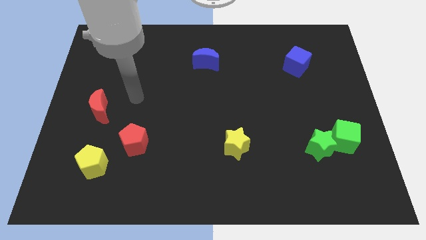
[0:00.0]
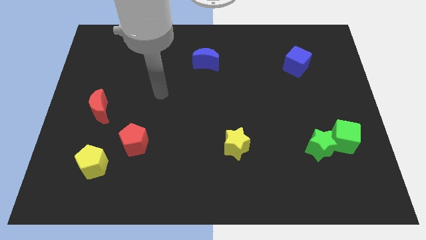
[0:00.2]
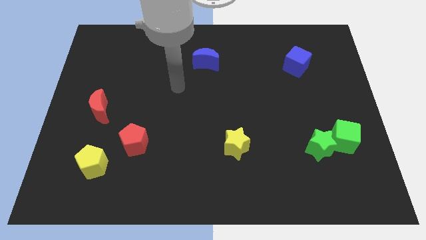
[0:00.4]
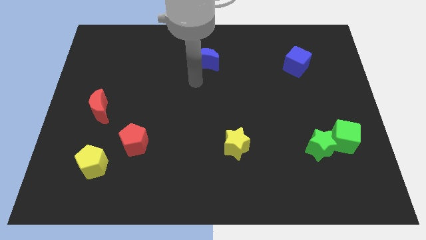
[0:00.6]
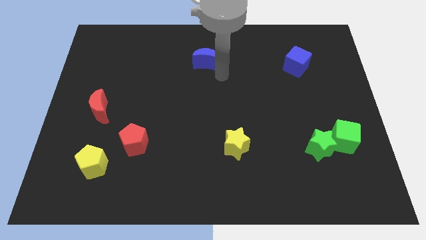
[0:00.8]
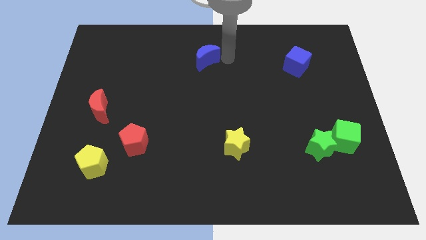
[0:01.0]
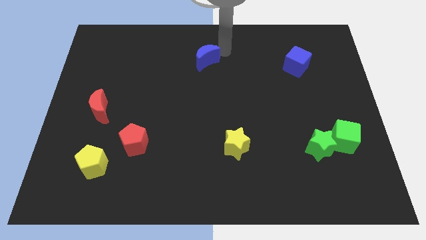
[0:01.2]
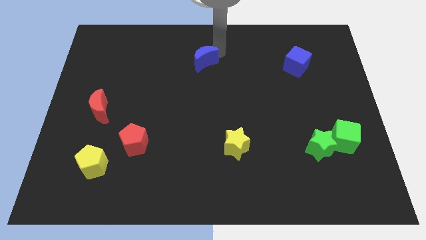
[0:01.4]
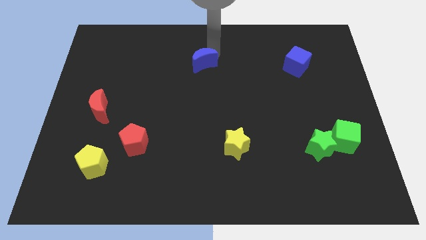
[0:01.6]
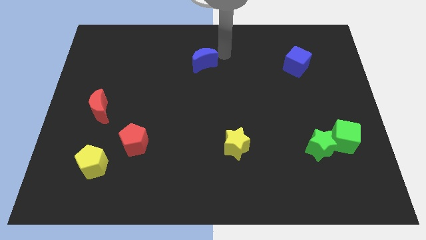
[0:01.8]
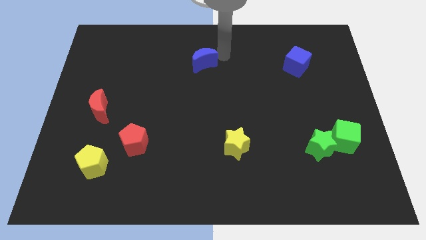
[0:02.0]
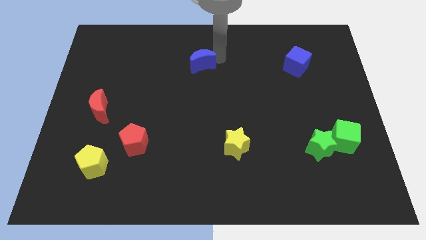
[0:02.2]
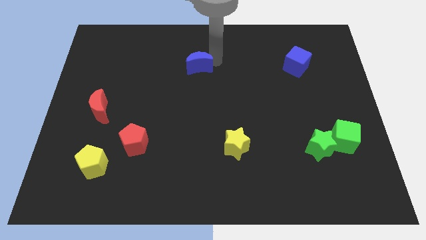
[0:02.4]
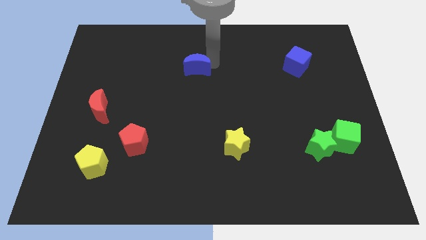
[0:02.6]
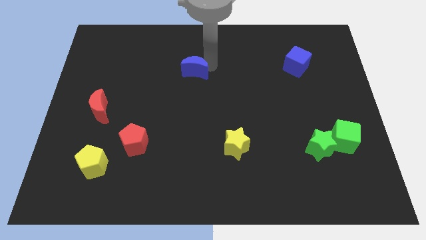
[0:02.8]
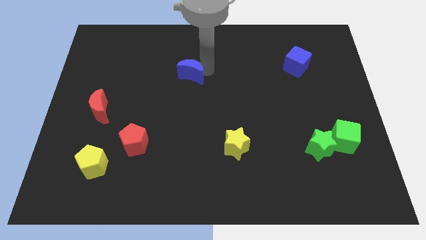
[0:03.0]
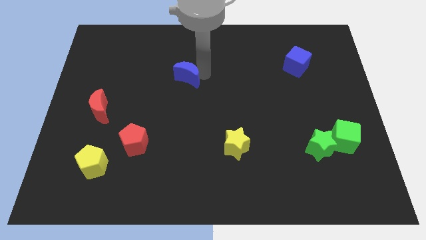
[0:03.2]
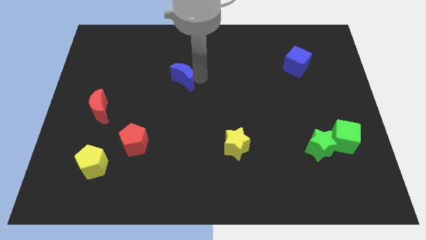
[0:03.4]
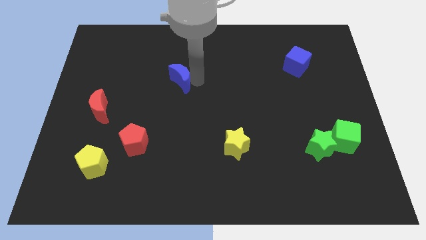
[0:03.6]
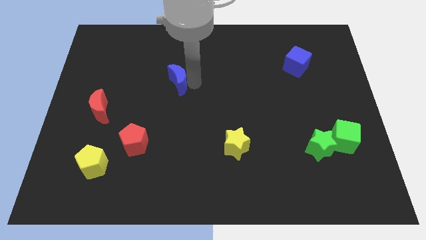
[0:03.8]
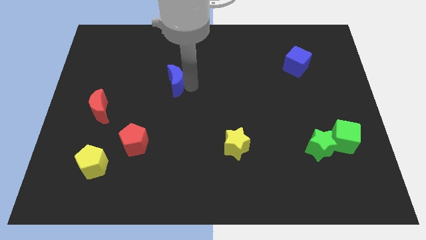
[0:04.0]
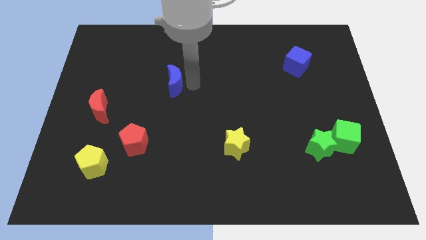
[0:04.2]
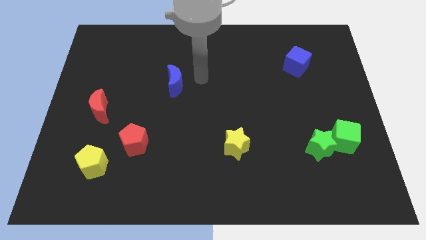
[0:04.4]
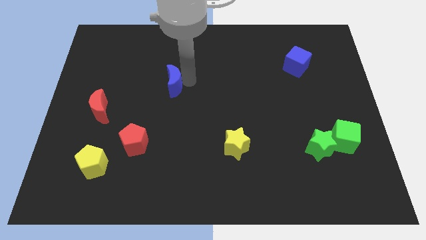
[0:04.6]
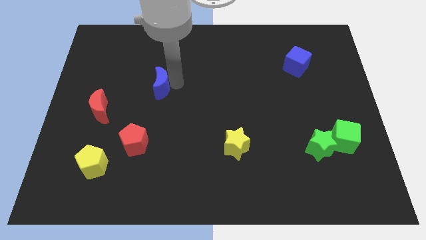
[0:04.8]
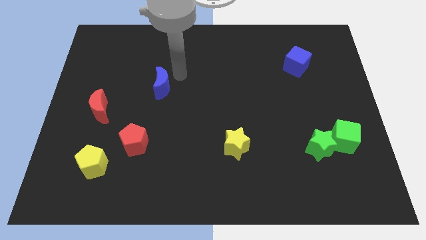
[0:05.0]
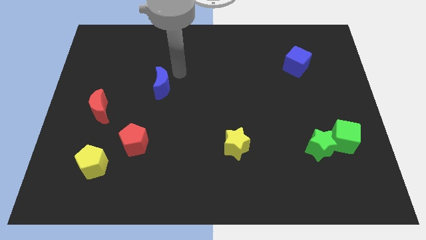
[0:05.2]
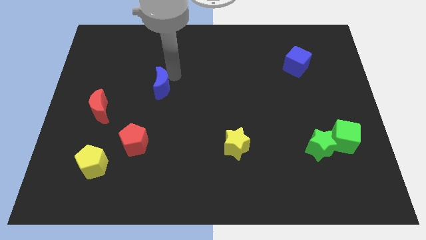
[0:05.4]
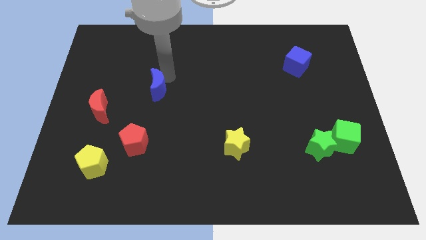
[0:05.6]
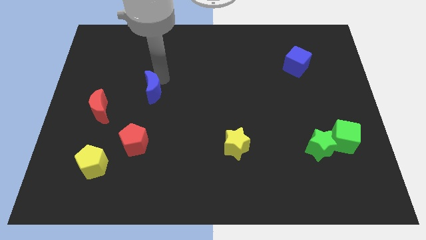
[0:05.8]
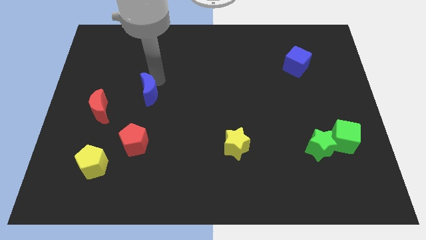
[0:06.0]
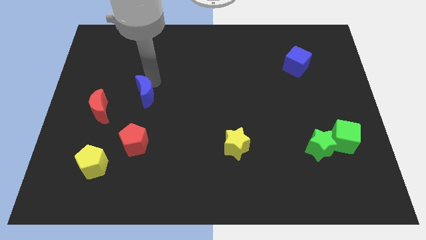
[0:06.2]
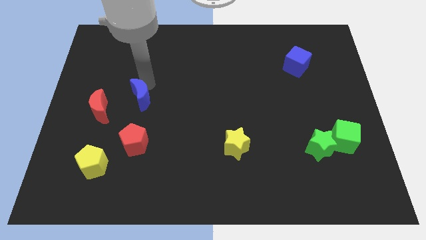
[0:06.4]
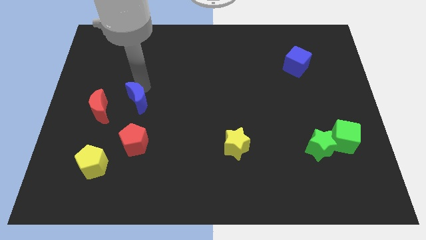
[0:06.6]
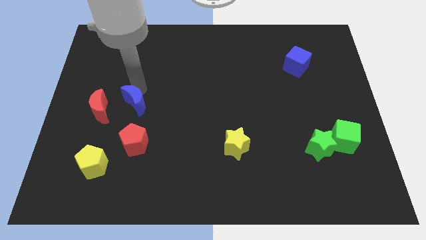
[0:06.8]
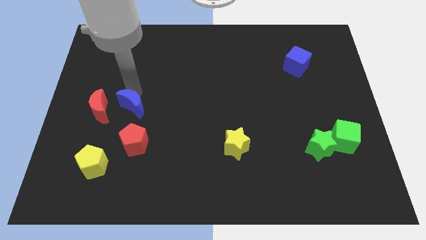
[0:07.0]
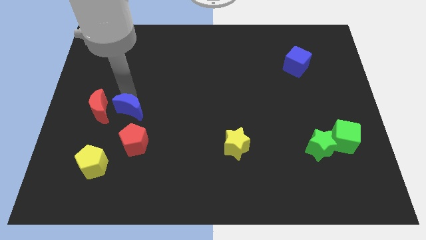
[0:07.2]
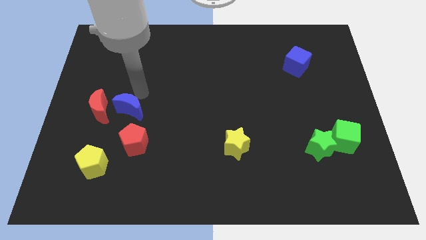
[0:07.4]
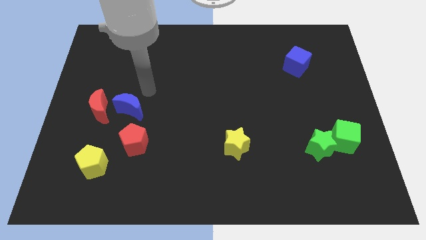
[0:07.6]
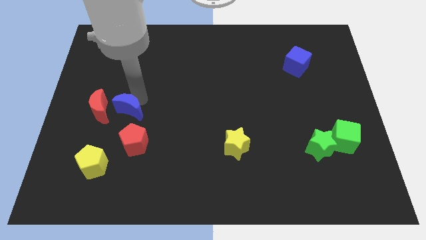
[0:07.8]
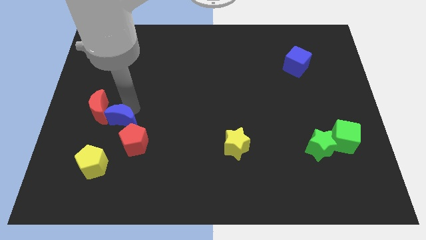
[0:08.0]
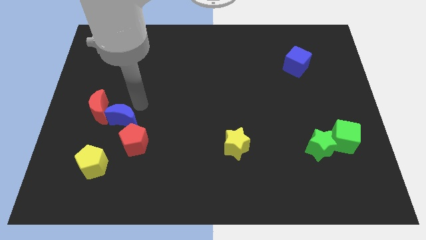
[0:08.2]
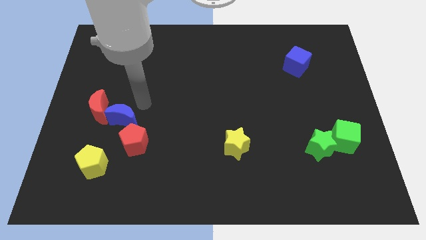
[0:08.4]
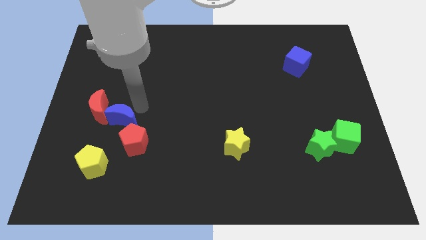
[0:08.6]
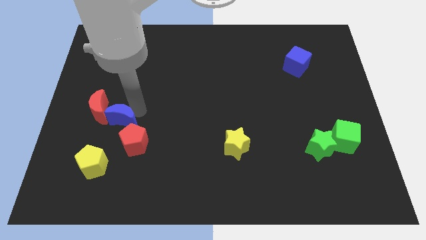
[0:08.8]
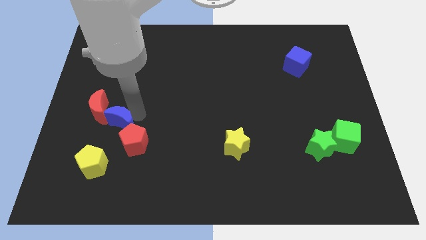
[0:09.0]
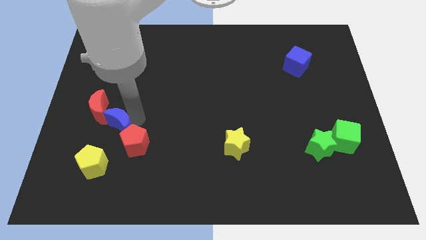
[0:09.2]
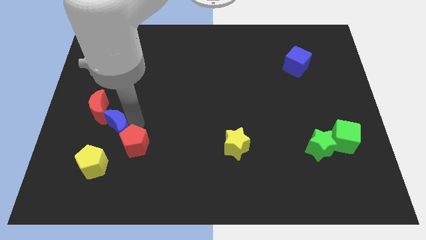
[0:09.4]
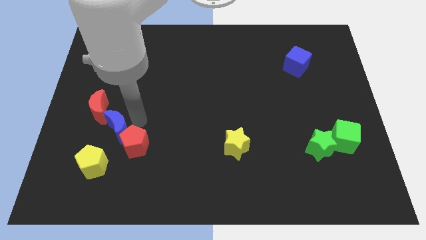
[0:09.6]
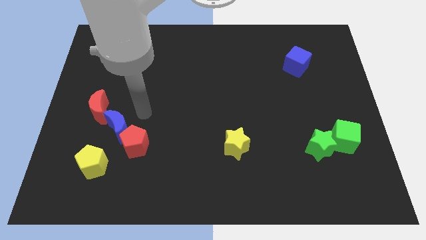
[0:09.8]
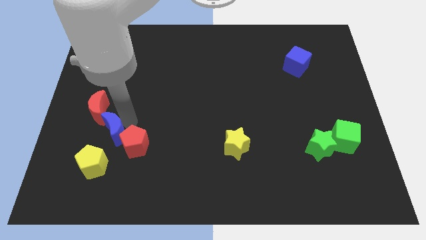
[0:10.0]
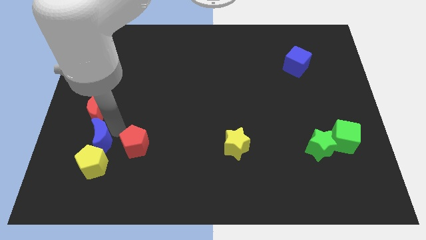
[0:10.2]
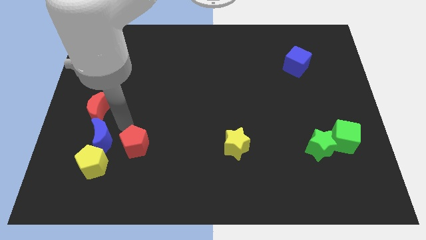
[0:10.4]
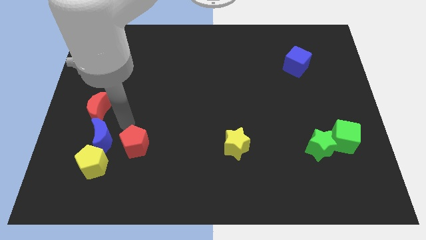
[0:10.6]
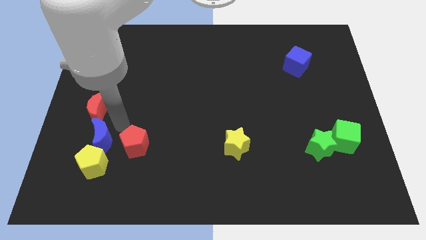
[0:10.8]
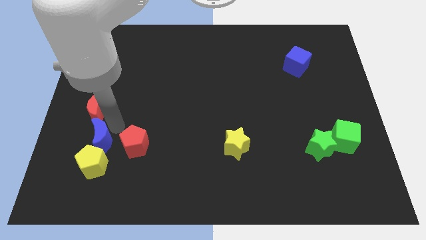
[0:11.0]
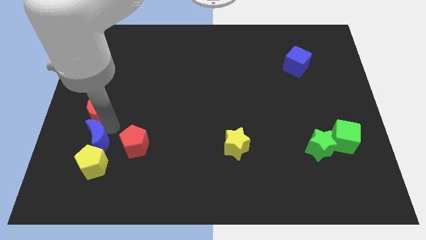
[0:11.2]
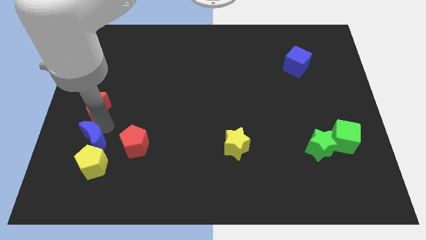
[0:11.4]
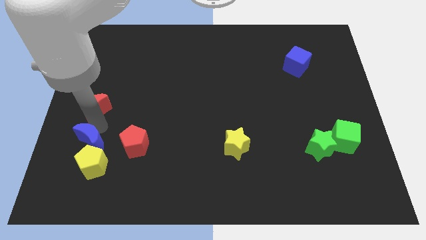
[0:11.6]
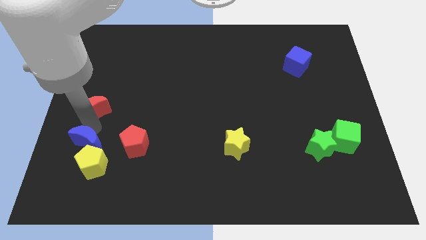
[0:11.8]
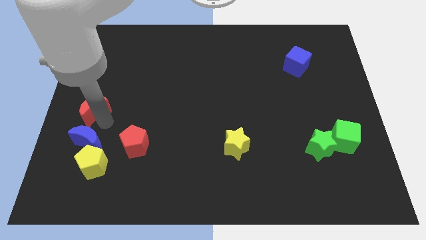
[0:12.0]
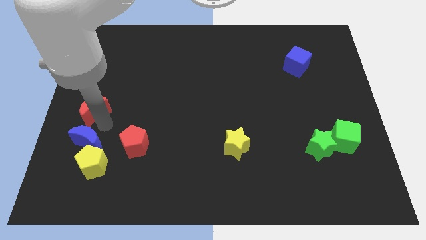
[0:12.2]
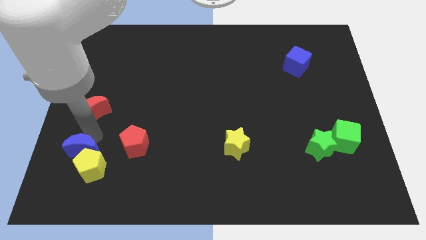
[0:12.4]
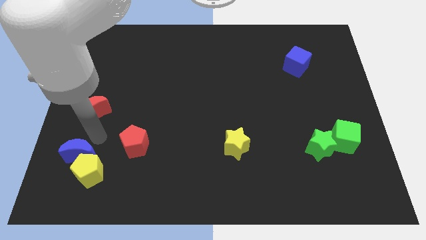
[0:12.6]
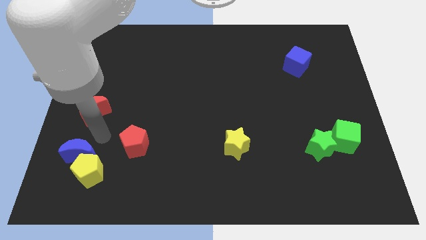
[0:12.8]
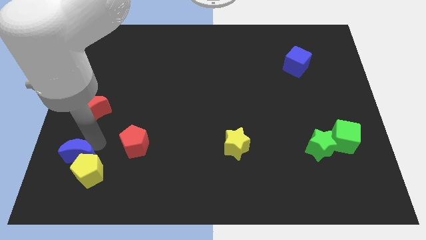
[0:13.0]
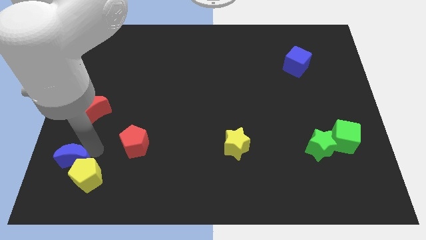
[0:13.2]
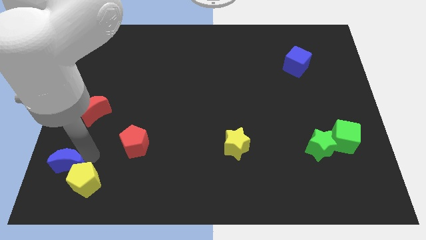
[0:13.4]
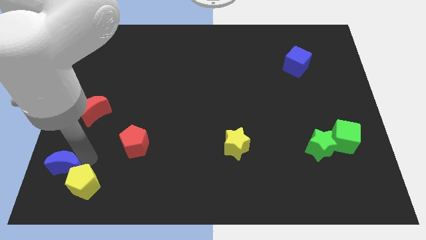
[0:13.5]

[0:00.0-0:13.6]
put the blue moon to the bottom left
